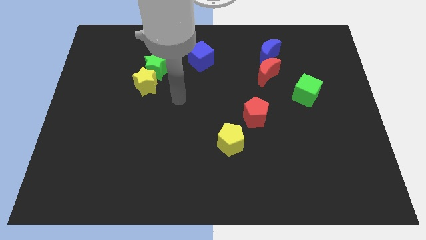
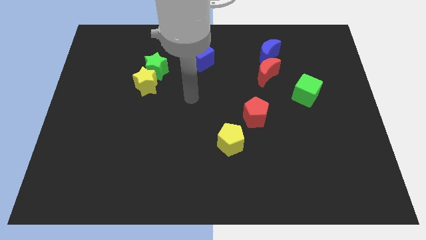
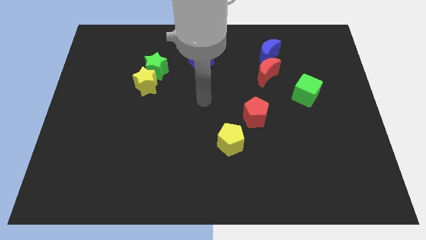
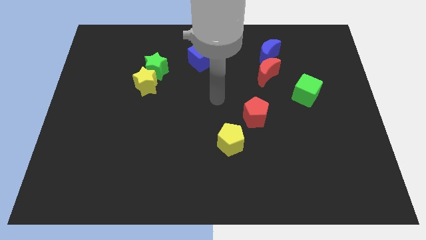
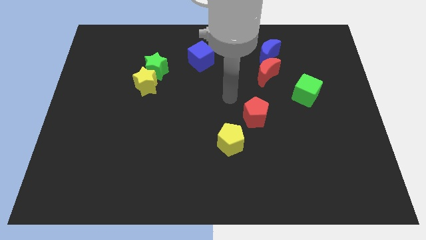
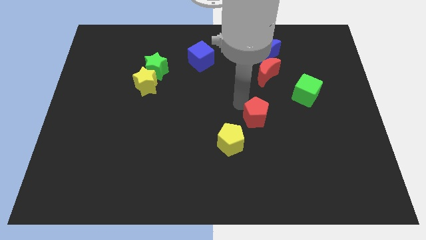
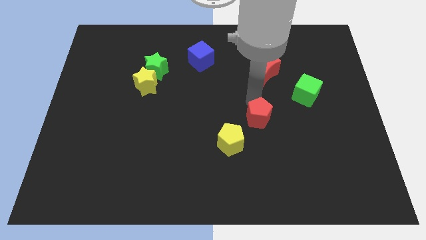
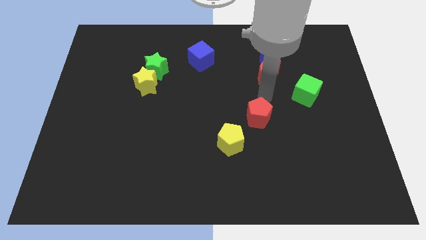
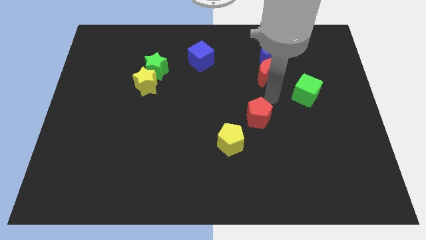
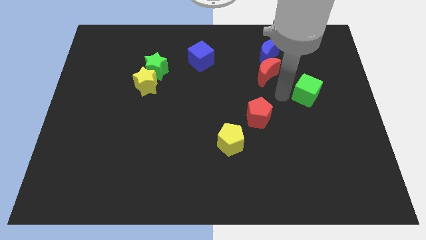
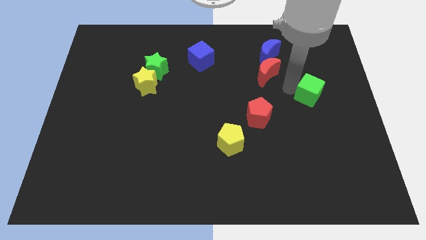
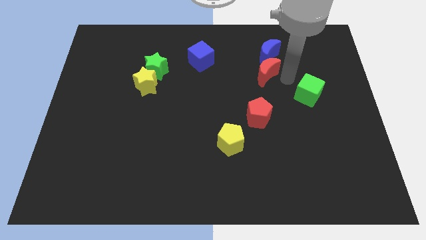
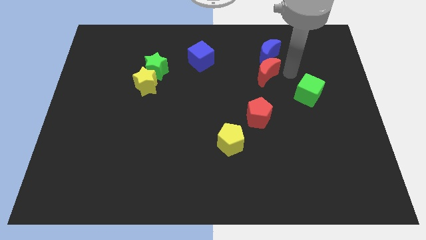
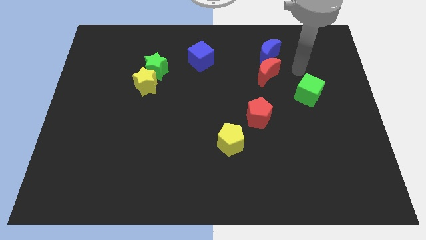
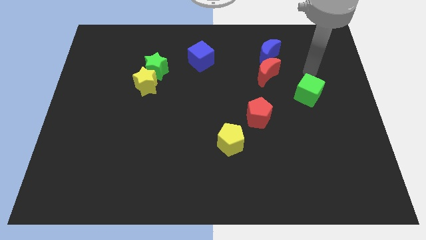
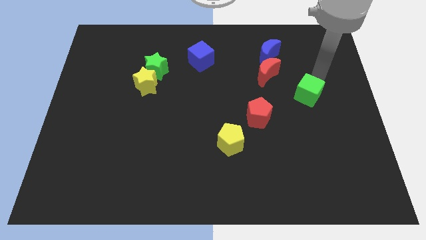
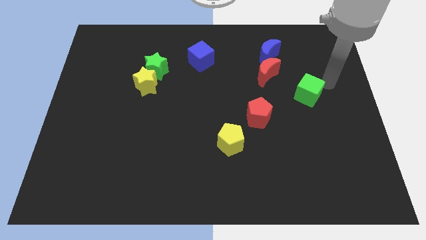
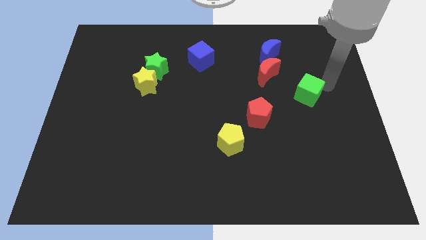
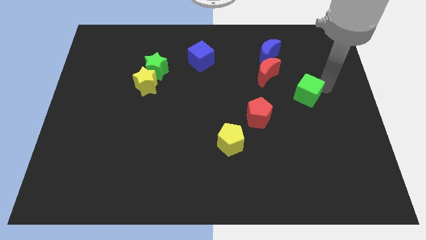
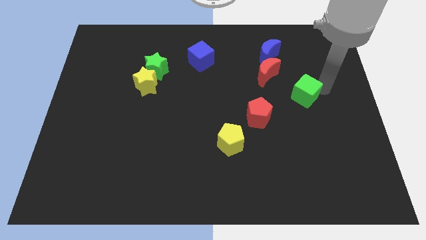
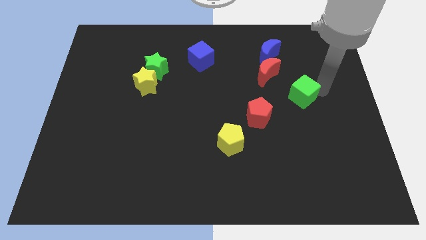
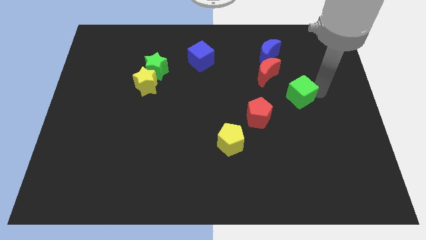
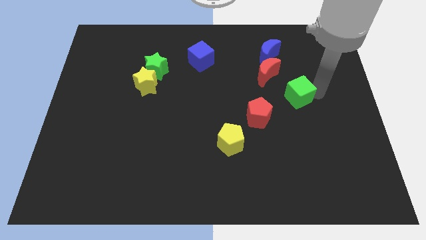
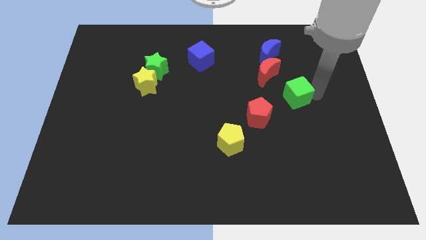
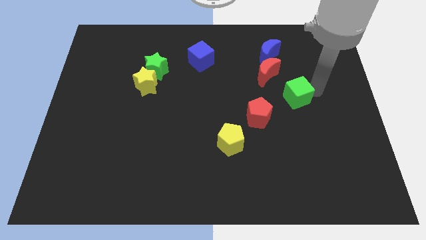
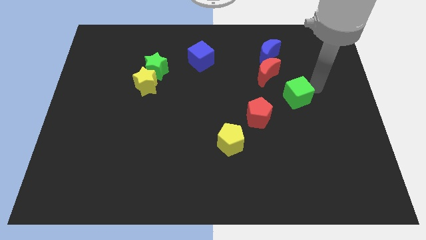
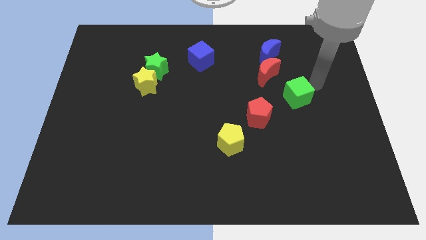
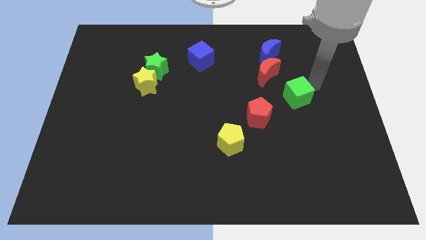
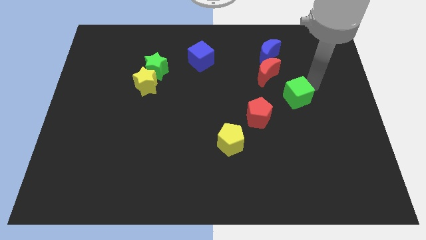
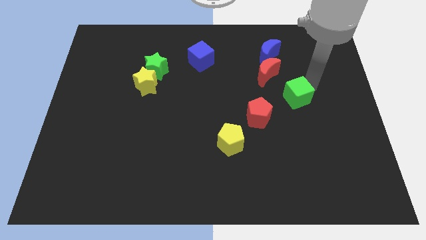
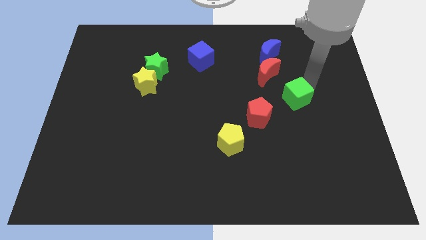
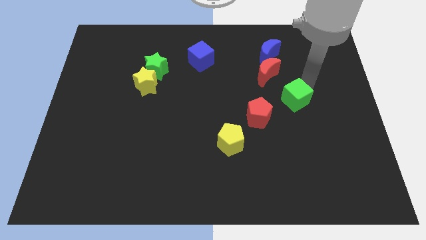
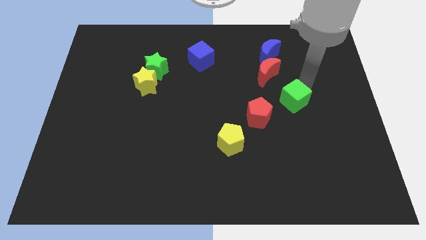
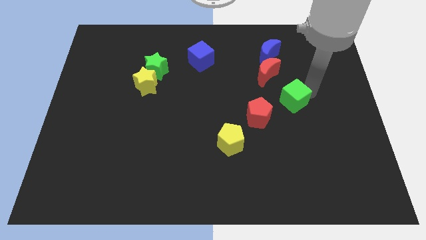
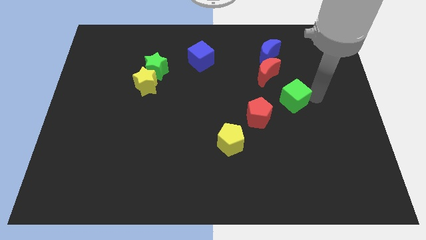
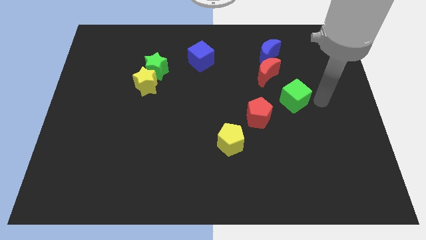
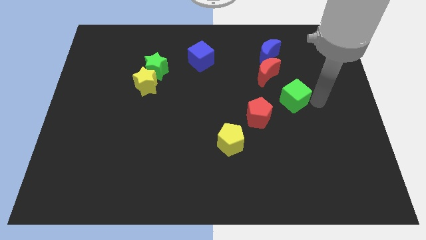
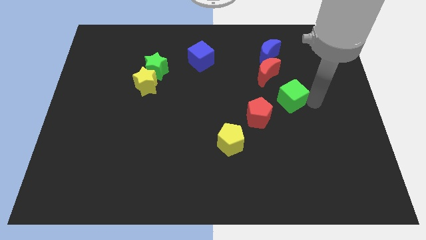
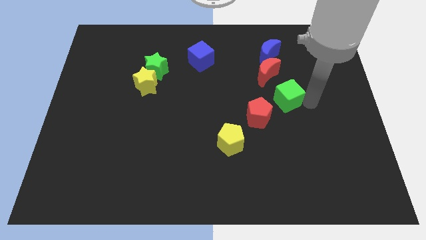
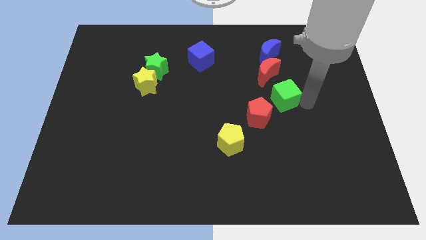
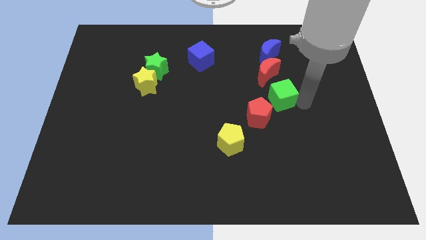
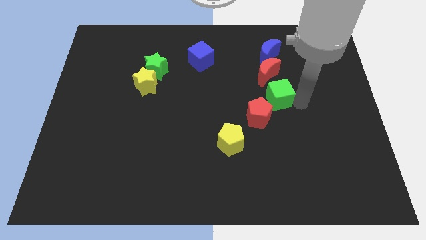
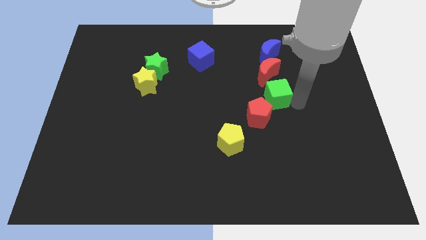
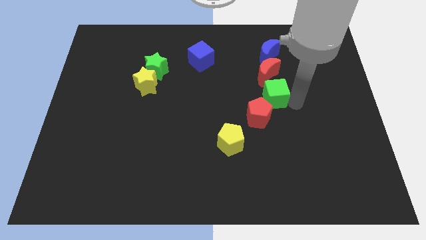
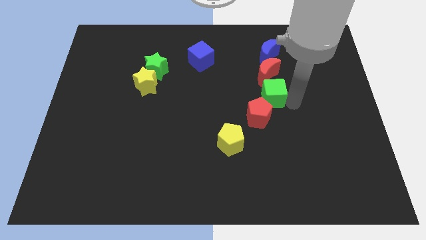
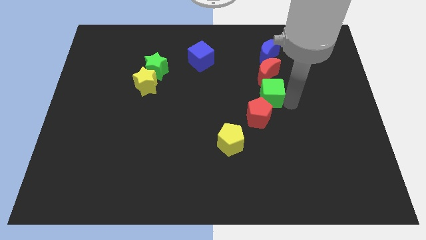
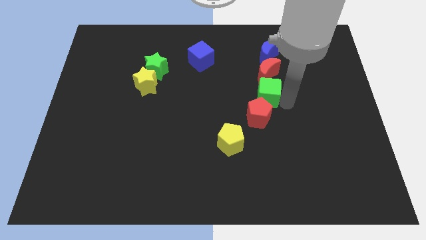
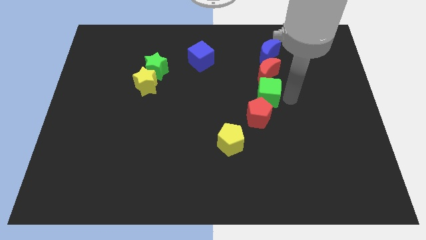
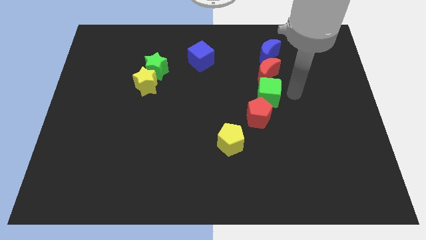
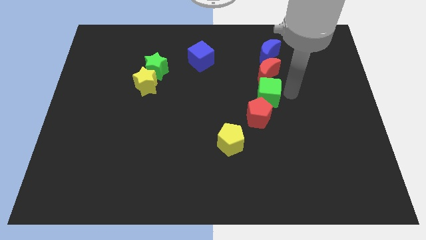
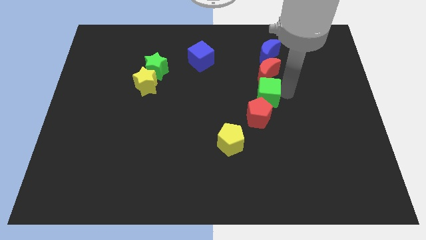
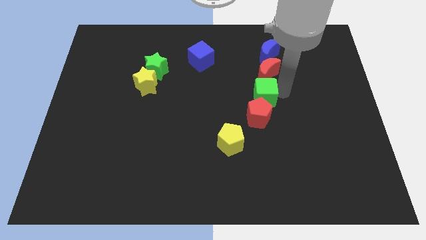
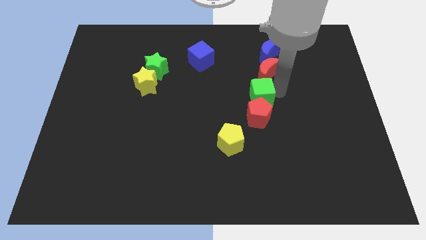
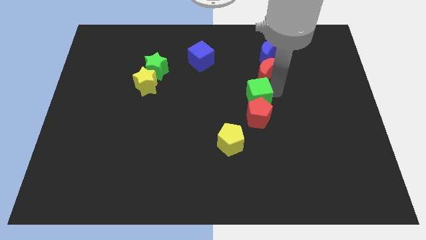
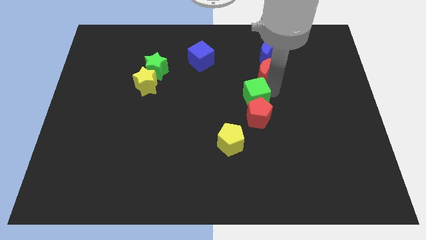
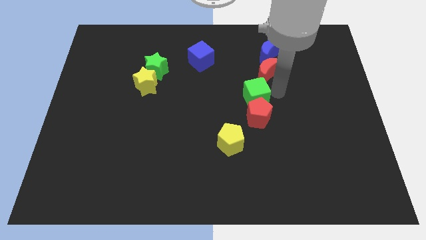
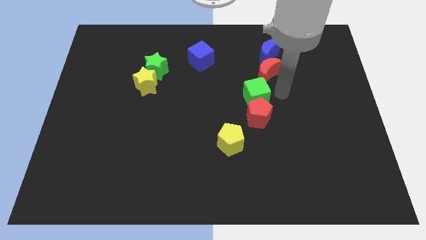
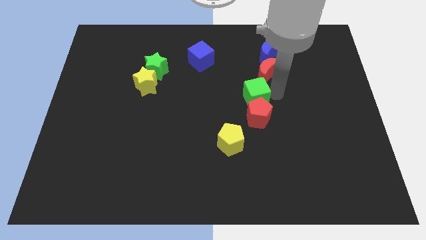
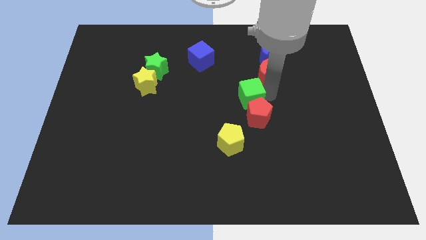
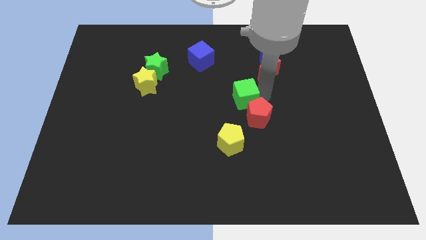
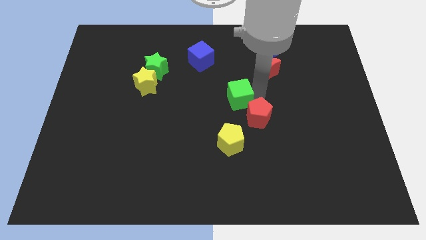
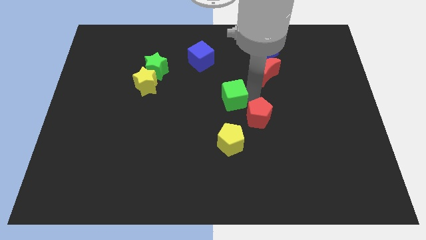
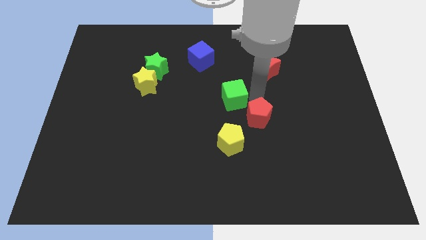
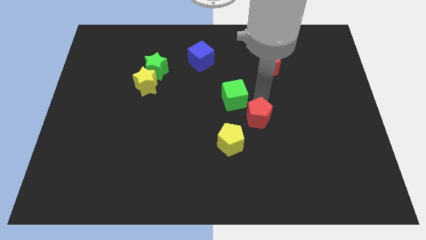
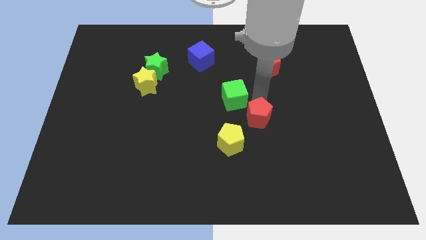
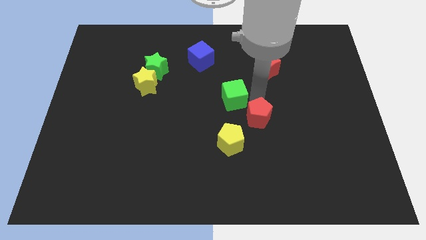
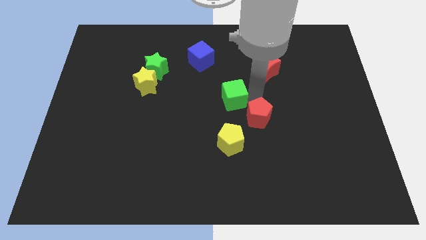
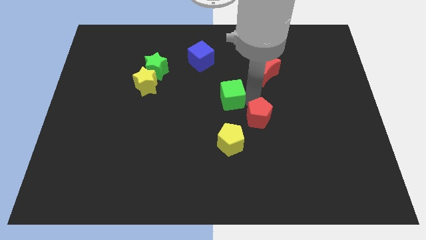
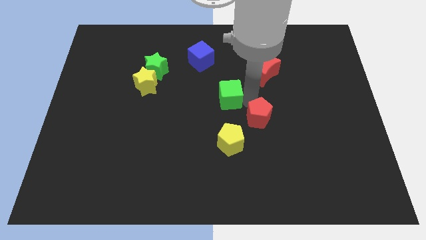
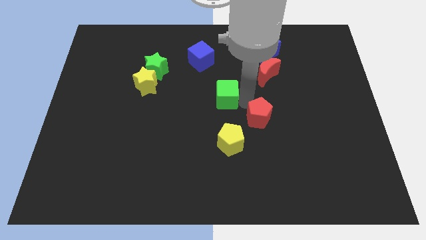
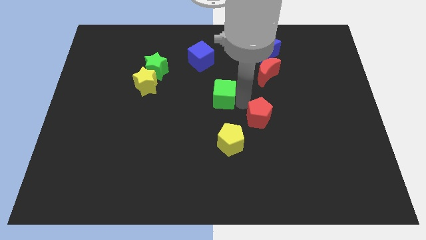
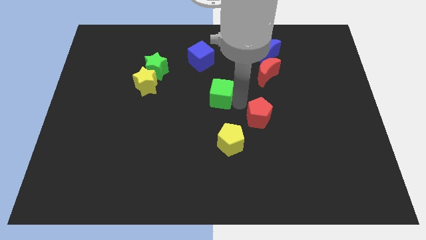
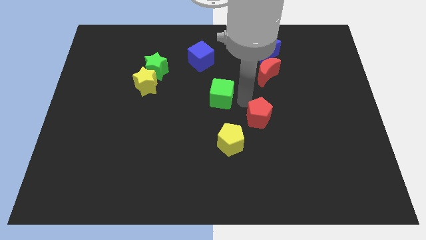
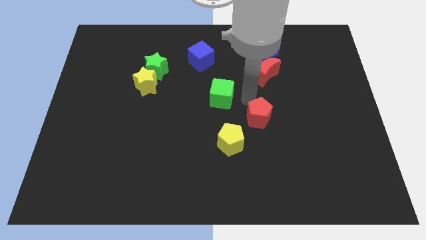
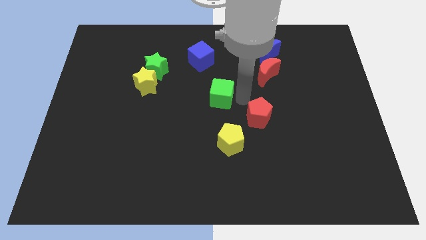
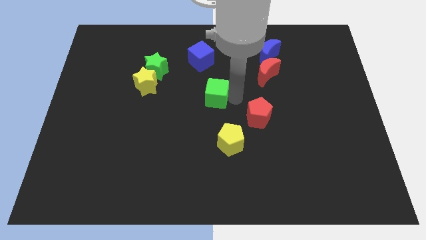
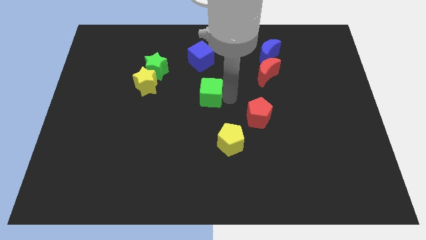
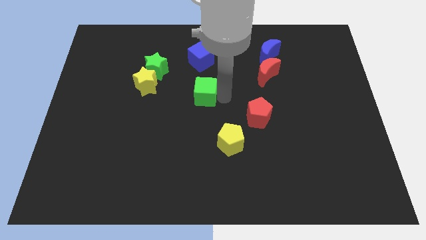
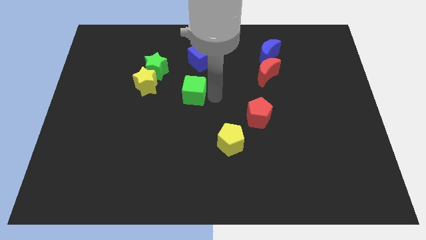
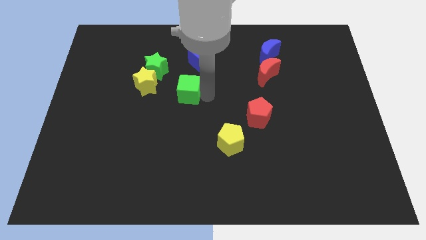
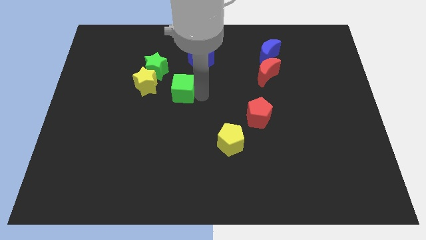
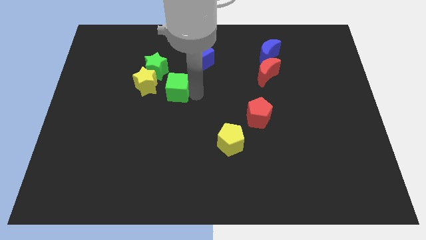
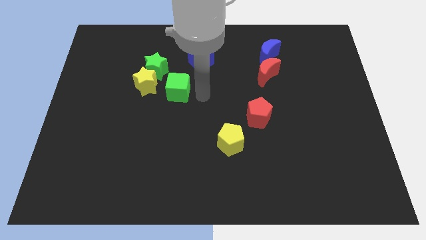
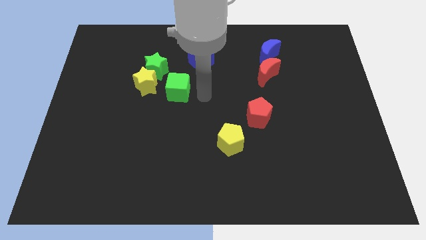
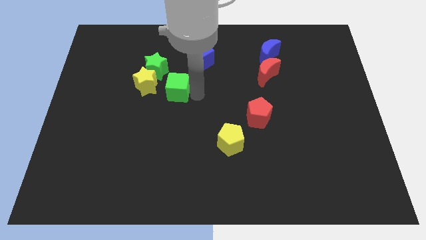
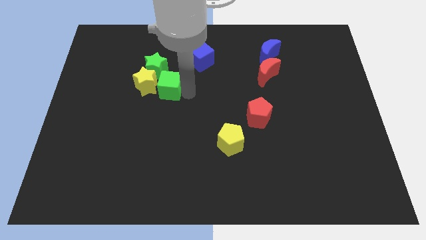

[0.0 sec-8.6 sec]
slide the green cube close to the yellow star
